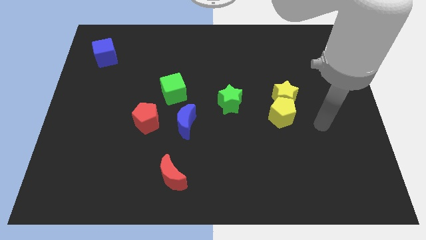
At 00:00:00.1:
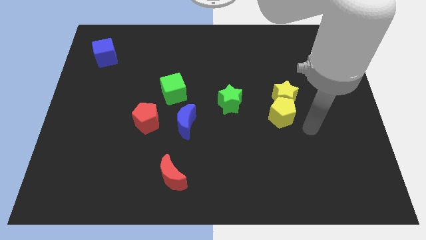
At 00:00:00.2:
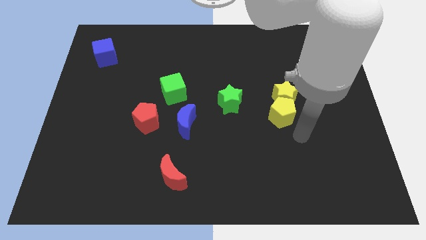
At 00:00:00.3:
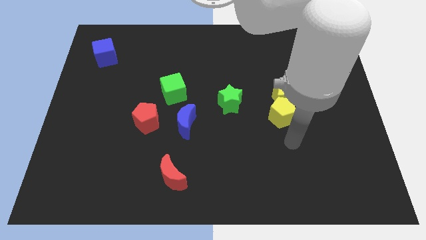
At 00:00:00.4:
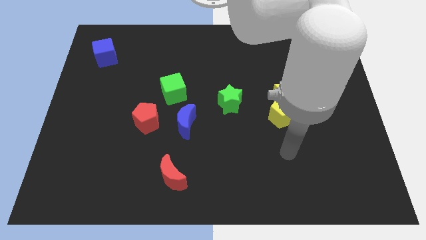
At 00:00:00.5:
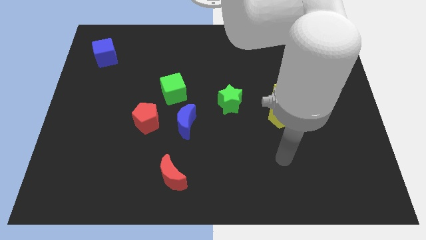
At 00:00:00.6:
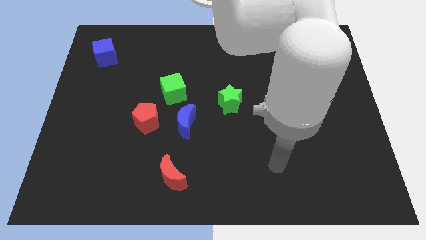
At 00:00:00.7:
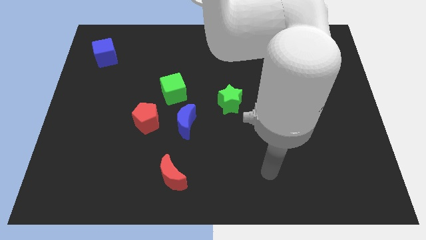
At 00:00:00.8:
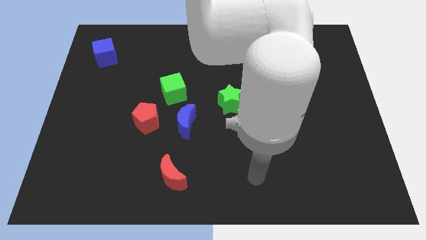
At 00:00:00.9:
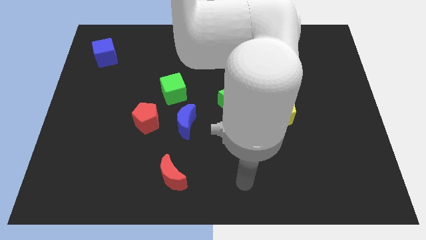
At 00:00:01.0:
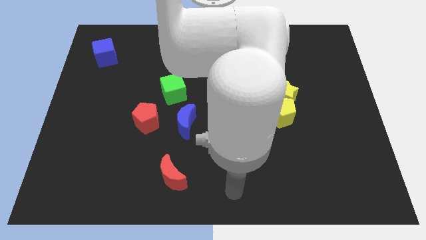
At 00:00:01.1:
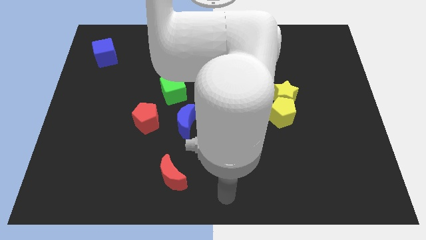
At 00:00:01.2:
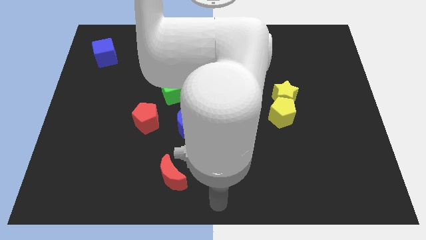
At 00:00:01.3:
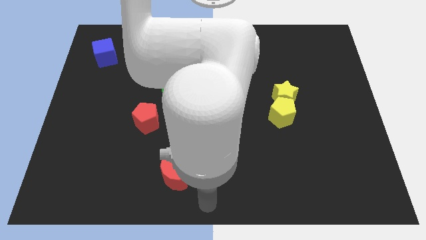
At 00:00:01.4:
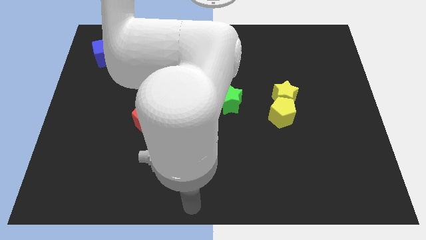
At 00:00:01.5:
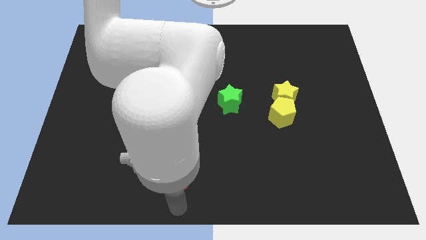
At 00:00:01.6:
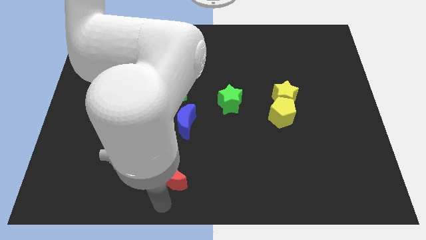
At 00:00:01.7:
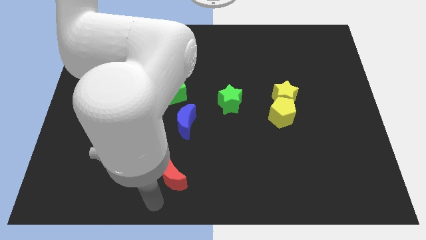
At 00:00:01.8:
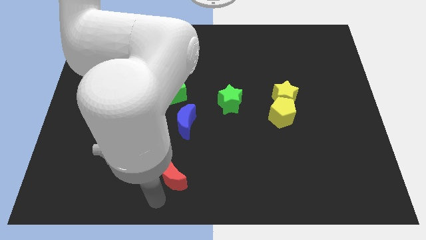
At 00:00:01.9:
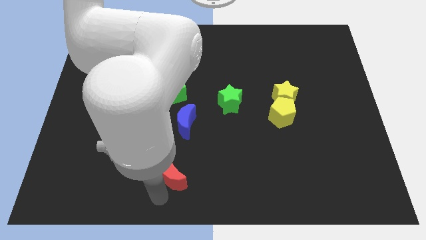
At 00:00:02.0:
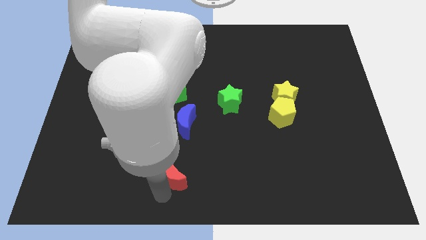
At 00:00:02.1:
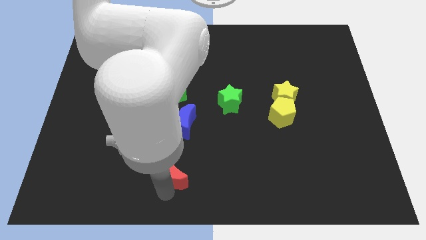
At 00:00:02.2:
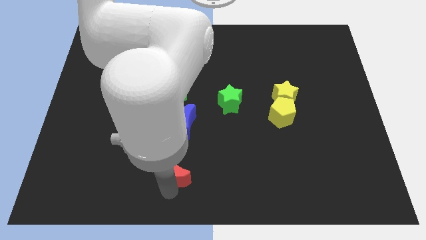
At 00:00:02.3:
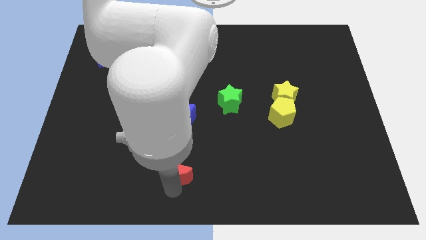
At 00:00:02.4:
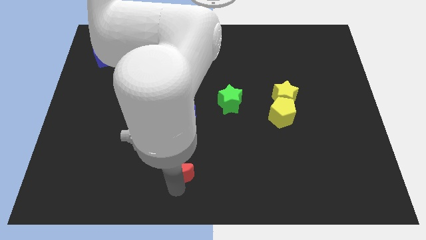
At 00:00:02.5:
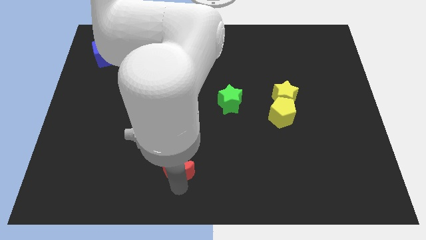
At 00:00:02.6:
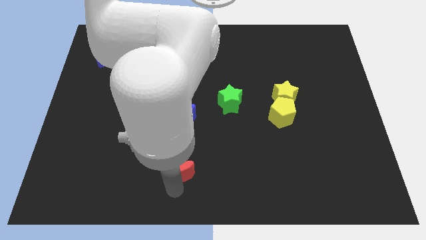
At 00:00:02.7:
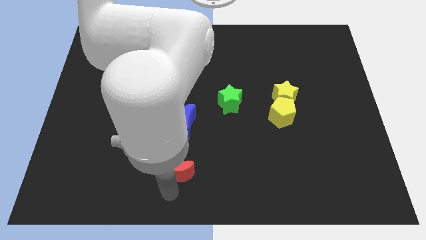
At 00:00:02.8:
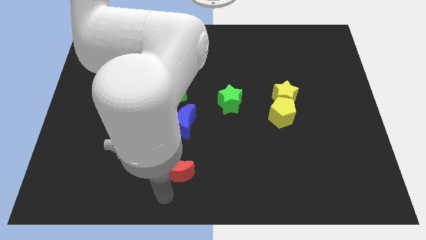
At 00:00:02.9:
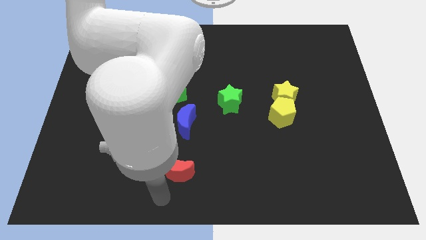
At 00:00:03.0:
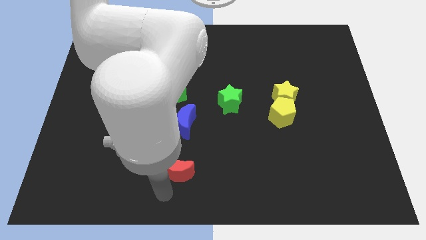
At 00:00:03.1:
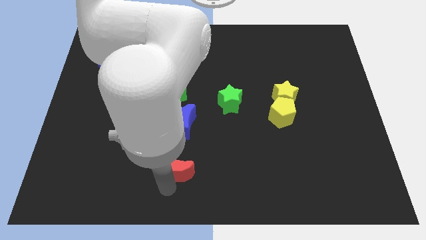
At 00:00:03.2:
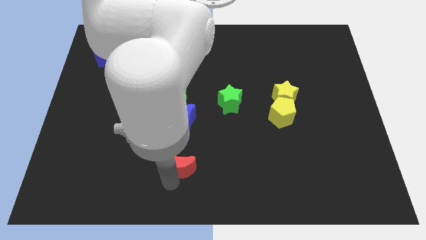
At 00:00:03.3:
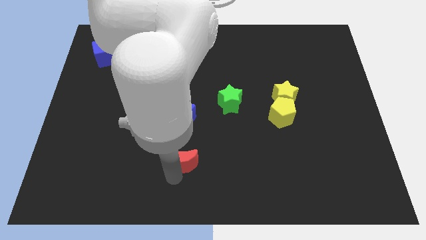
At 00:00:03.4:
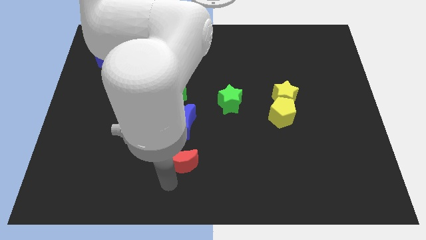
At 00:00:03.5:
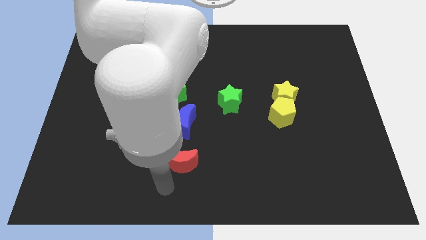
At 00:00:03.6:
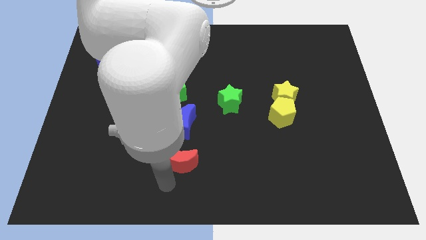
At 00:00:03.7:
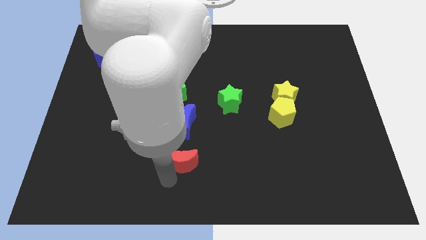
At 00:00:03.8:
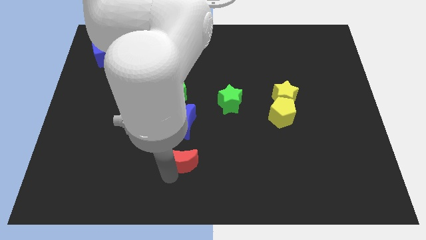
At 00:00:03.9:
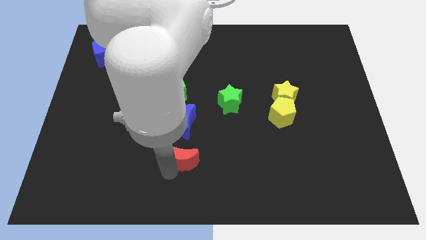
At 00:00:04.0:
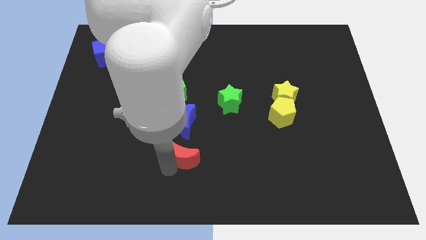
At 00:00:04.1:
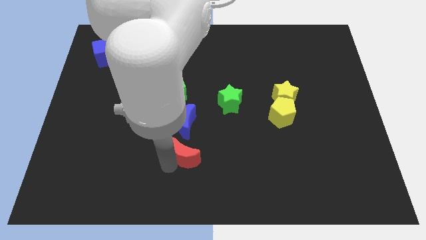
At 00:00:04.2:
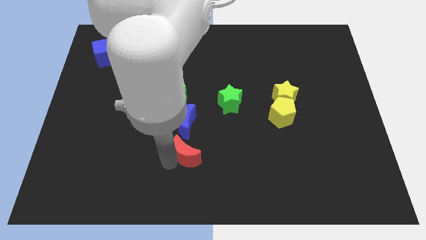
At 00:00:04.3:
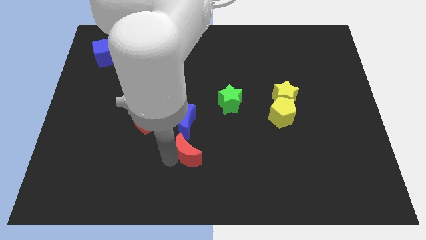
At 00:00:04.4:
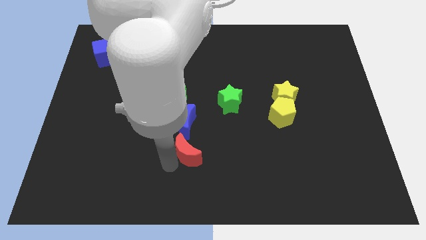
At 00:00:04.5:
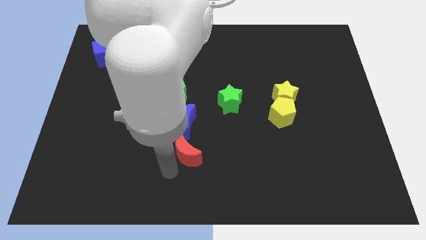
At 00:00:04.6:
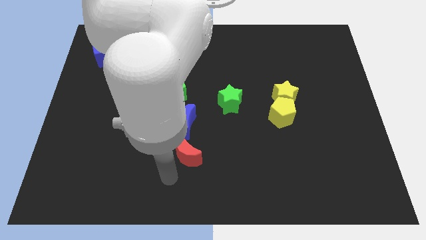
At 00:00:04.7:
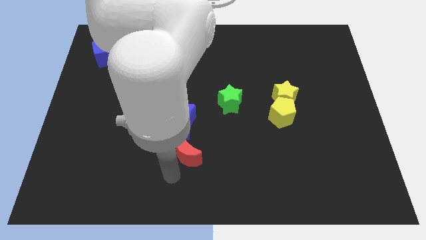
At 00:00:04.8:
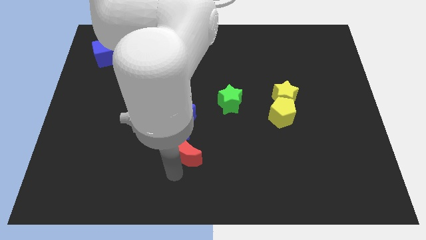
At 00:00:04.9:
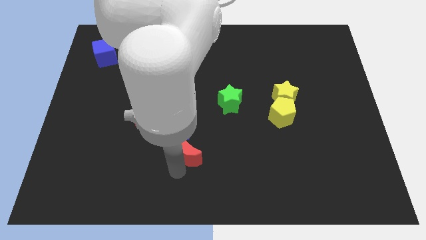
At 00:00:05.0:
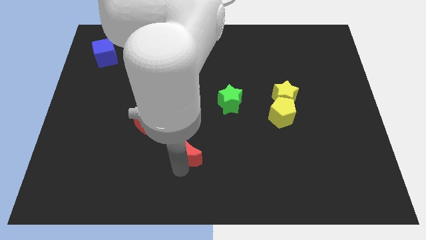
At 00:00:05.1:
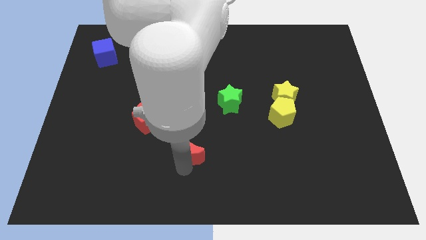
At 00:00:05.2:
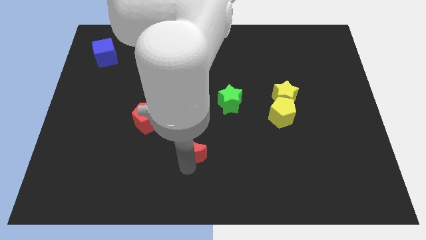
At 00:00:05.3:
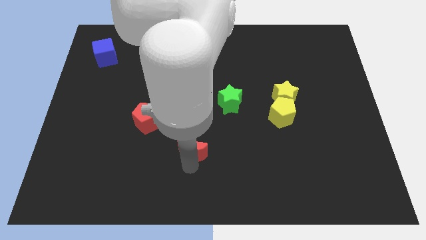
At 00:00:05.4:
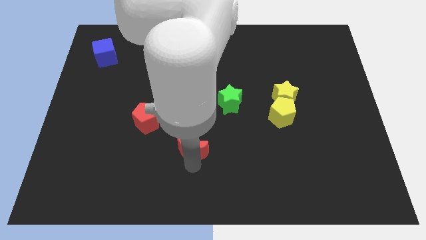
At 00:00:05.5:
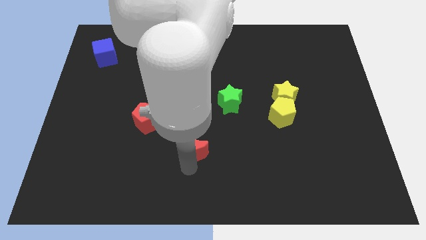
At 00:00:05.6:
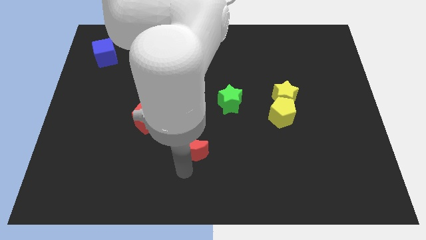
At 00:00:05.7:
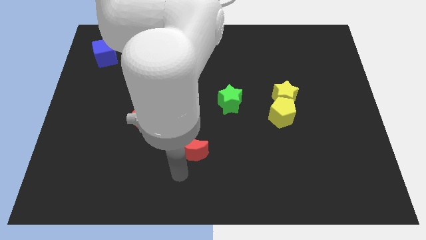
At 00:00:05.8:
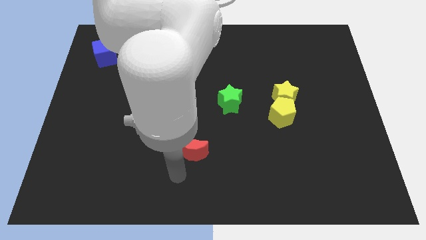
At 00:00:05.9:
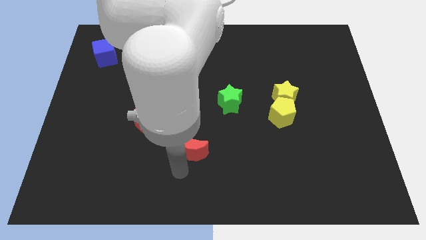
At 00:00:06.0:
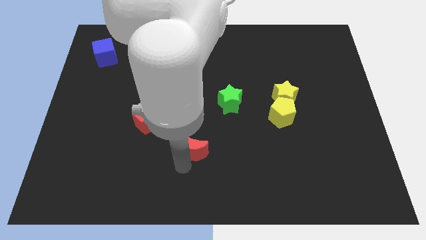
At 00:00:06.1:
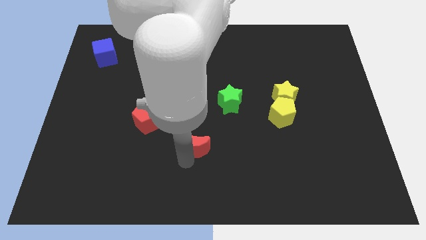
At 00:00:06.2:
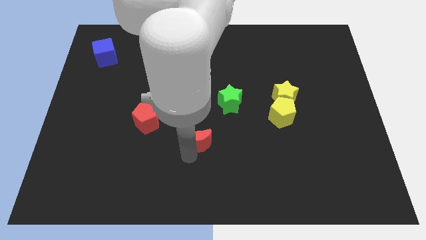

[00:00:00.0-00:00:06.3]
push the red moon to the center
